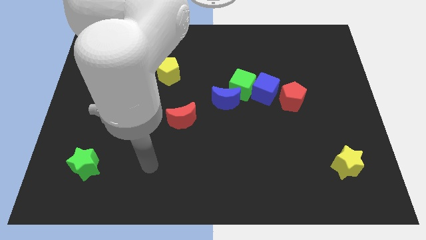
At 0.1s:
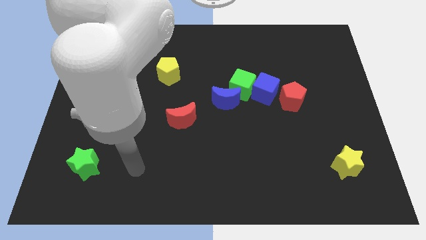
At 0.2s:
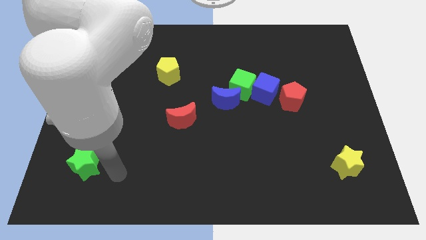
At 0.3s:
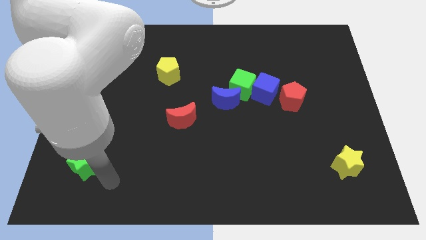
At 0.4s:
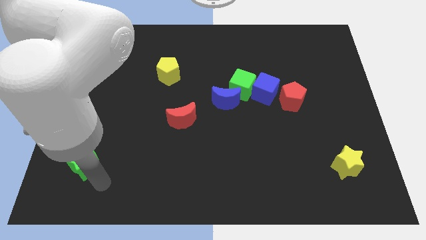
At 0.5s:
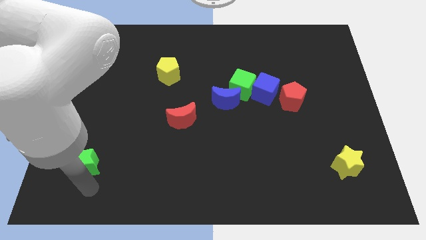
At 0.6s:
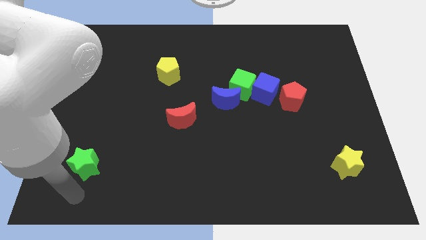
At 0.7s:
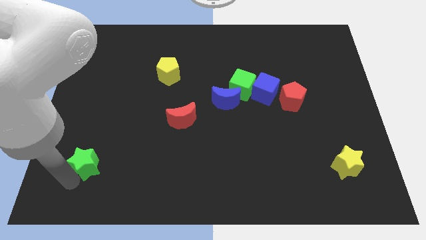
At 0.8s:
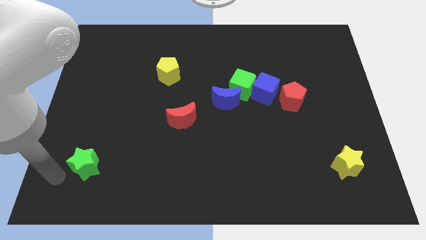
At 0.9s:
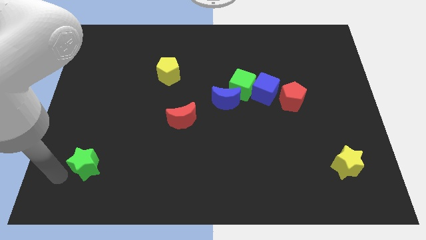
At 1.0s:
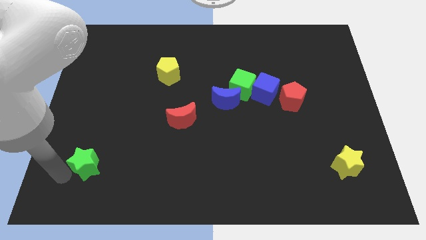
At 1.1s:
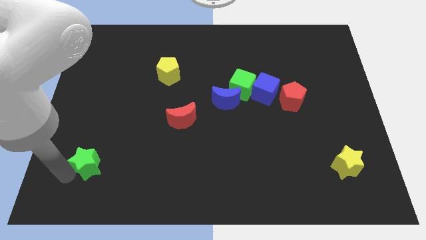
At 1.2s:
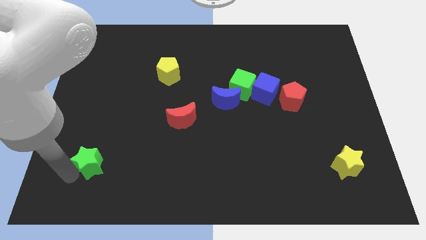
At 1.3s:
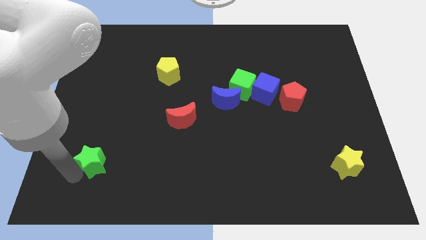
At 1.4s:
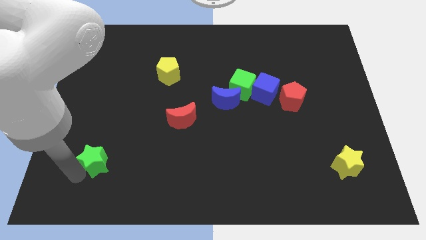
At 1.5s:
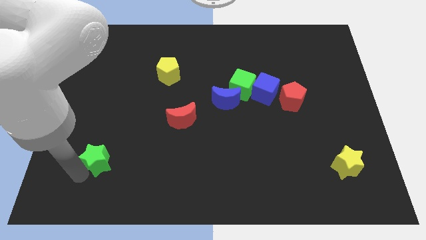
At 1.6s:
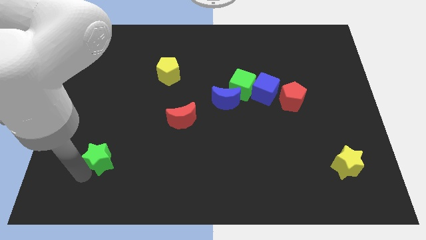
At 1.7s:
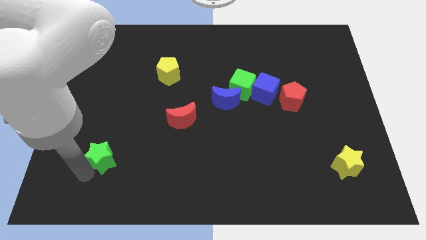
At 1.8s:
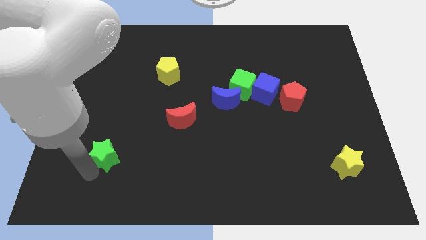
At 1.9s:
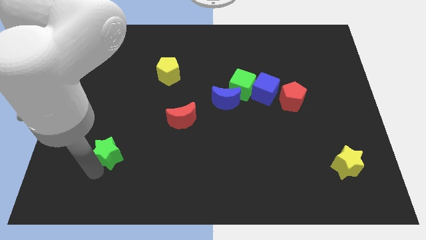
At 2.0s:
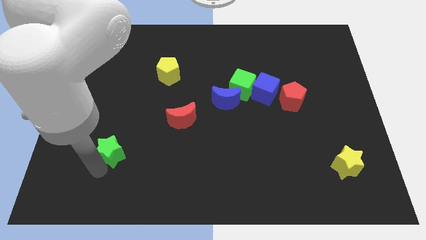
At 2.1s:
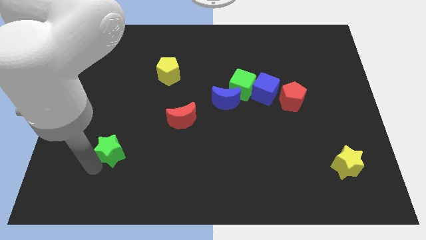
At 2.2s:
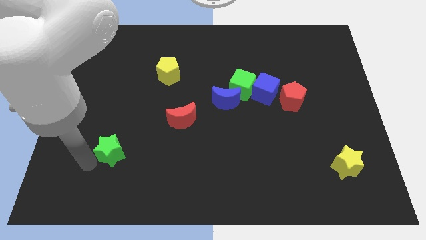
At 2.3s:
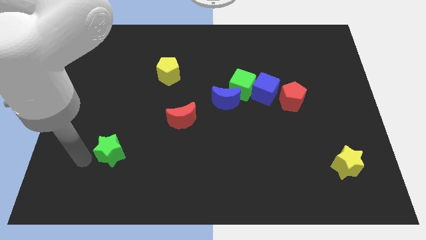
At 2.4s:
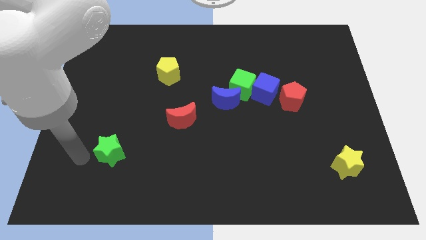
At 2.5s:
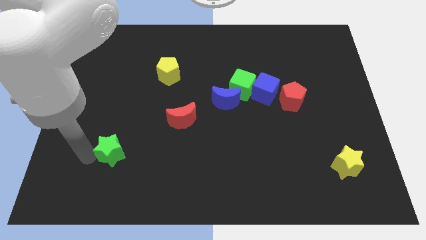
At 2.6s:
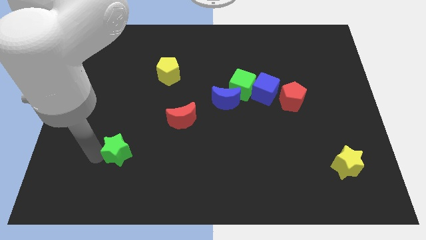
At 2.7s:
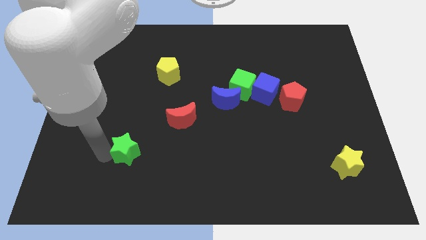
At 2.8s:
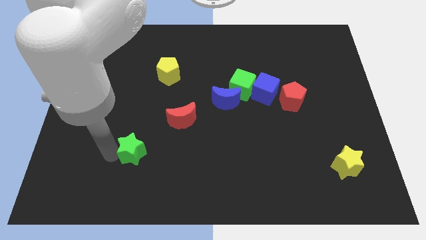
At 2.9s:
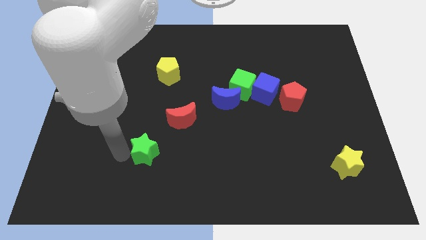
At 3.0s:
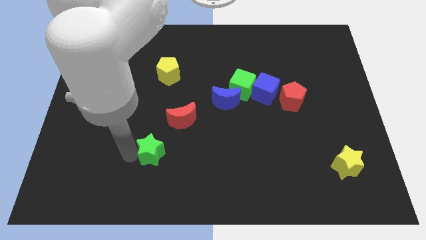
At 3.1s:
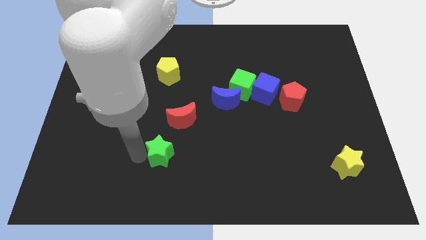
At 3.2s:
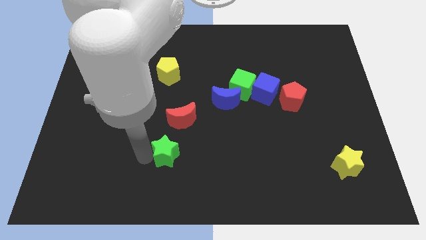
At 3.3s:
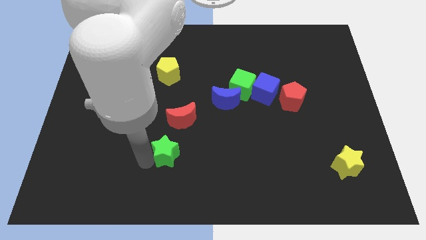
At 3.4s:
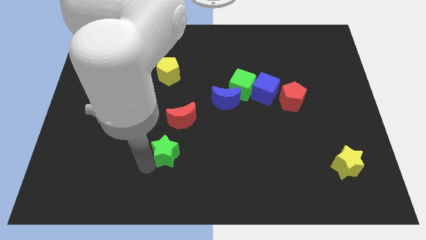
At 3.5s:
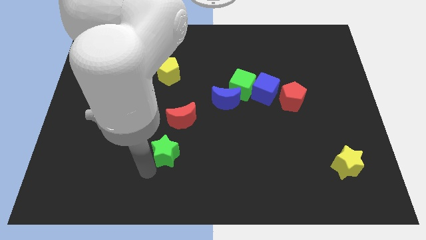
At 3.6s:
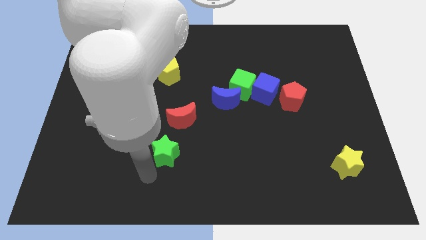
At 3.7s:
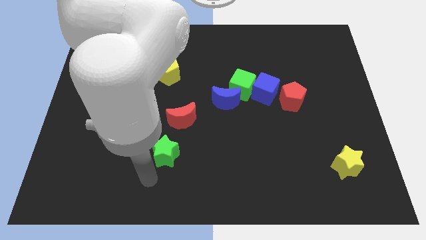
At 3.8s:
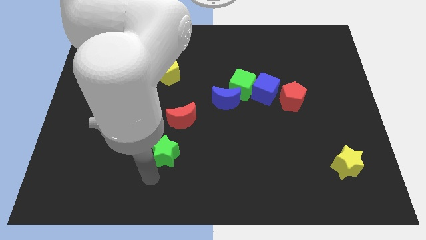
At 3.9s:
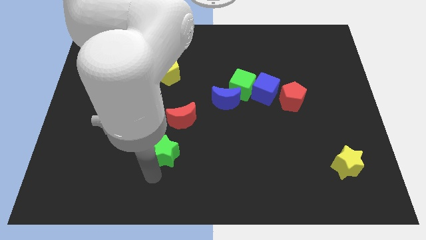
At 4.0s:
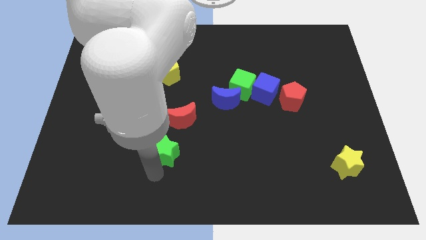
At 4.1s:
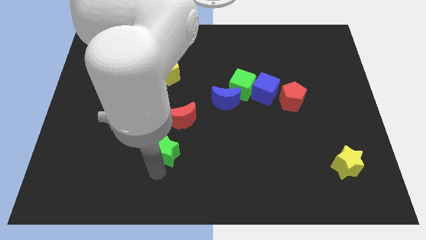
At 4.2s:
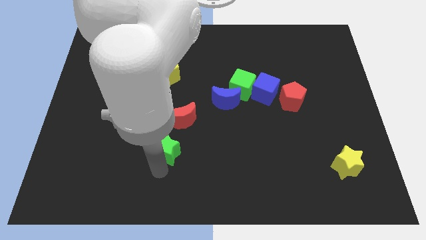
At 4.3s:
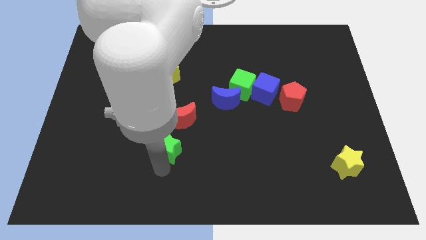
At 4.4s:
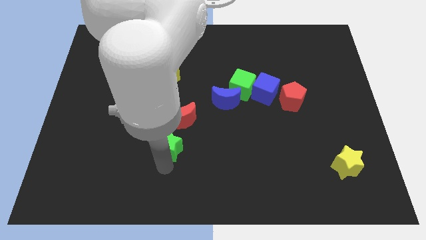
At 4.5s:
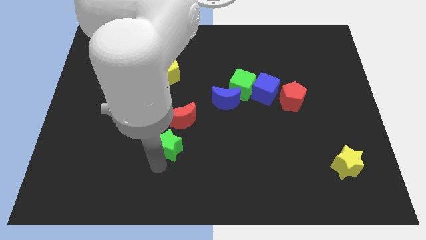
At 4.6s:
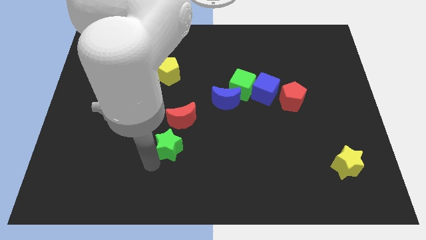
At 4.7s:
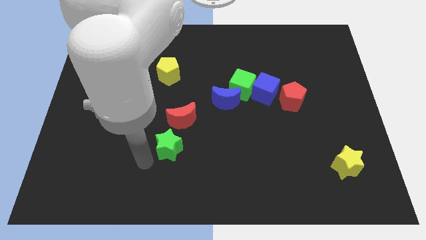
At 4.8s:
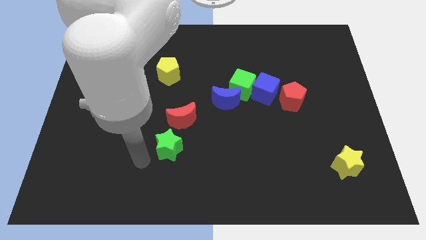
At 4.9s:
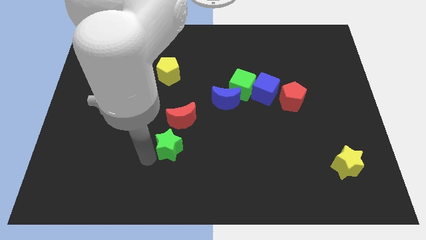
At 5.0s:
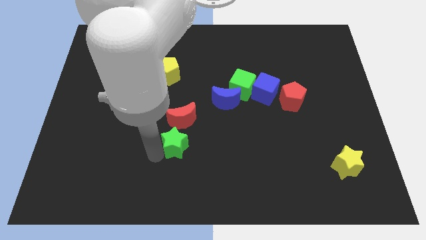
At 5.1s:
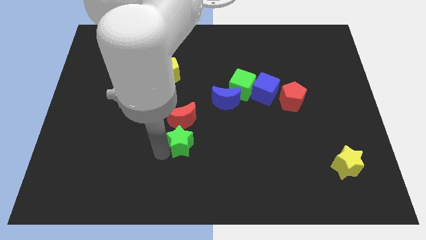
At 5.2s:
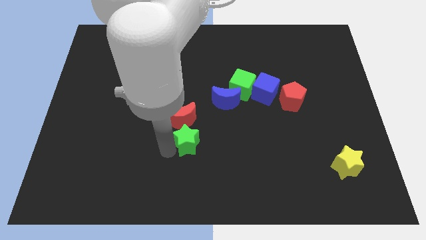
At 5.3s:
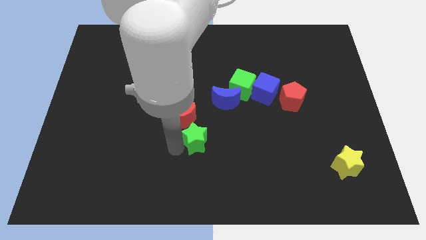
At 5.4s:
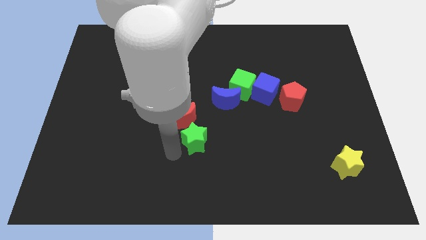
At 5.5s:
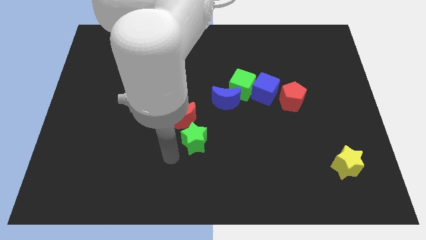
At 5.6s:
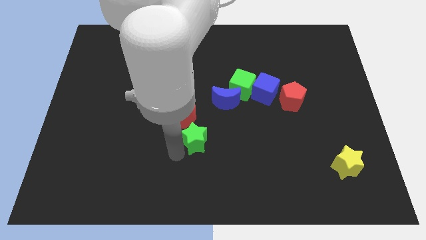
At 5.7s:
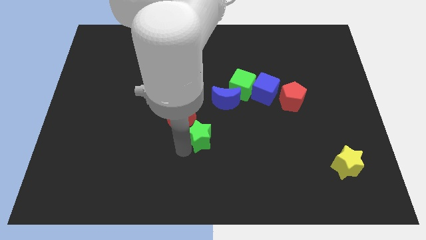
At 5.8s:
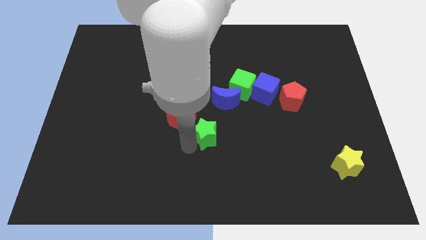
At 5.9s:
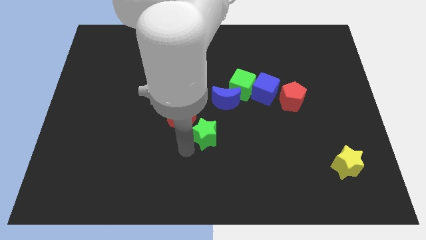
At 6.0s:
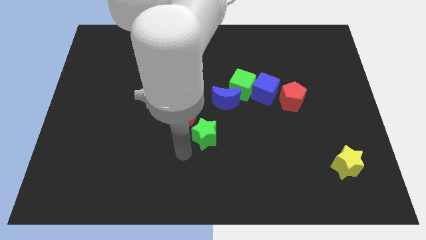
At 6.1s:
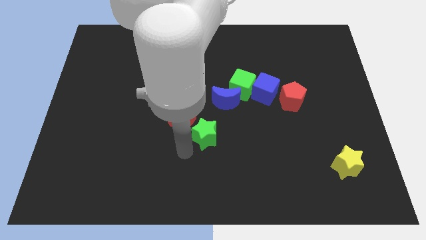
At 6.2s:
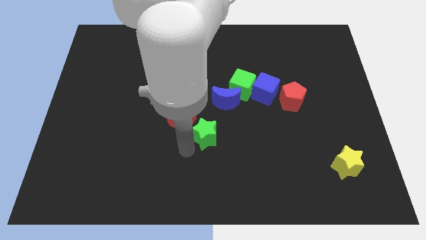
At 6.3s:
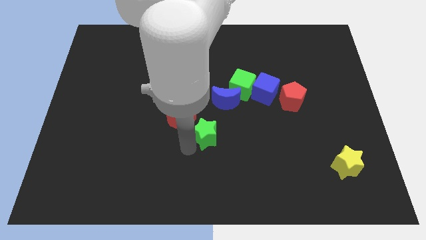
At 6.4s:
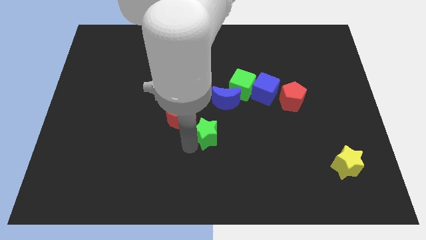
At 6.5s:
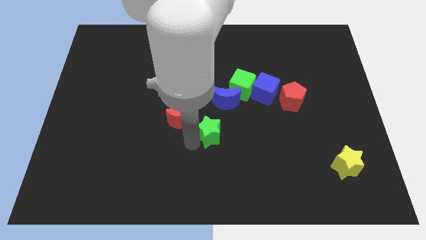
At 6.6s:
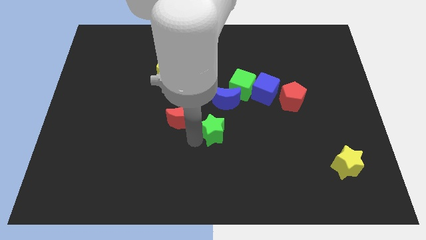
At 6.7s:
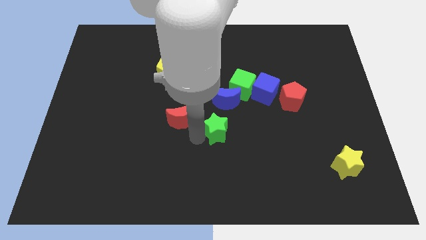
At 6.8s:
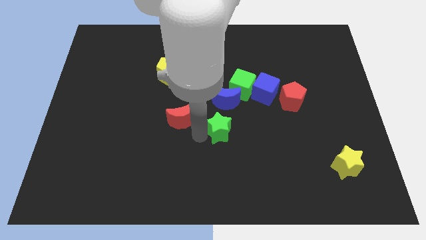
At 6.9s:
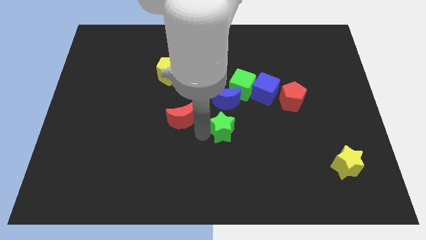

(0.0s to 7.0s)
move the green star below the green cube

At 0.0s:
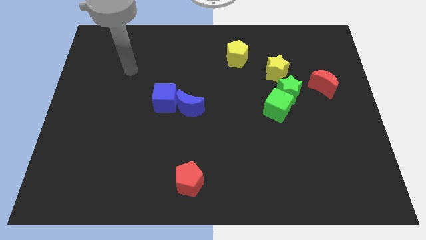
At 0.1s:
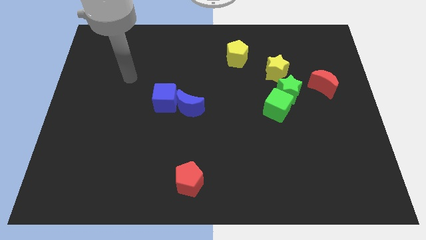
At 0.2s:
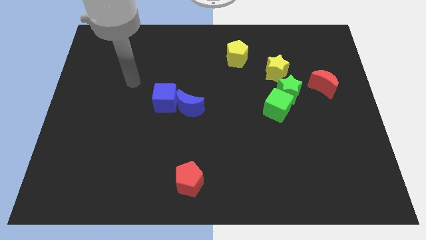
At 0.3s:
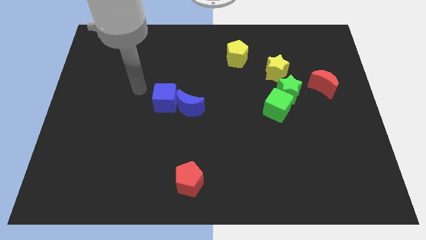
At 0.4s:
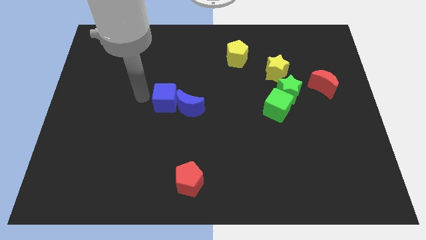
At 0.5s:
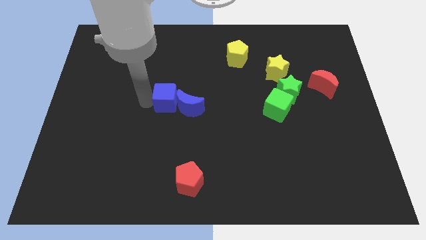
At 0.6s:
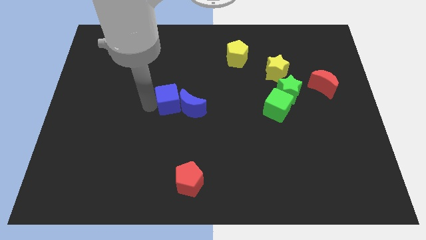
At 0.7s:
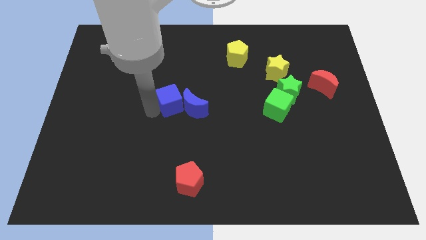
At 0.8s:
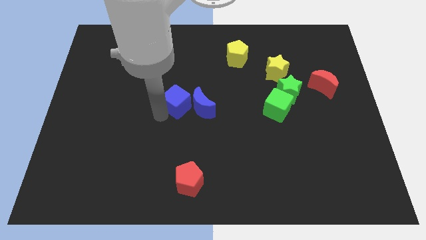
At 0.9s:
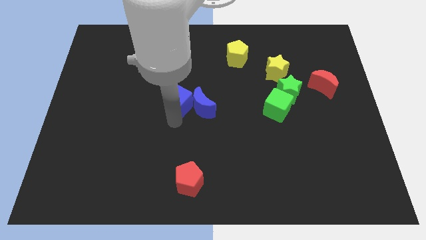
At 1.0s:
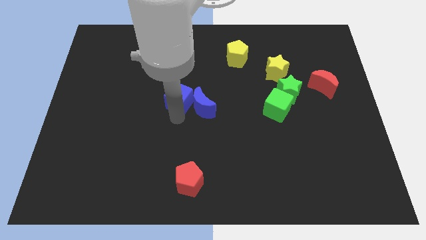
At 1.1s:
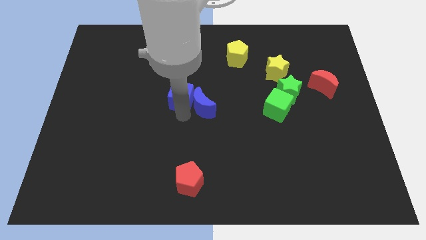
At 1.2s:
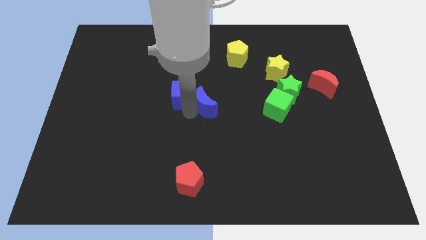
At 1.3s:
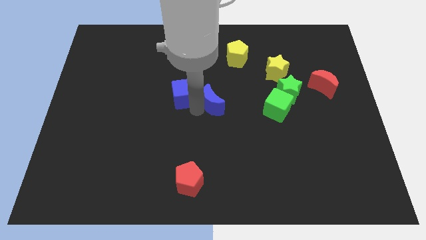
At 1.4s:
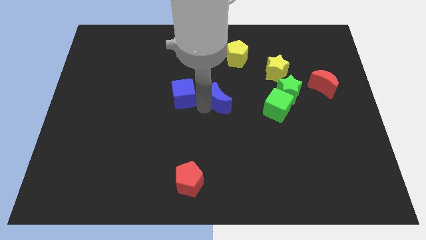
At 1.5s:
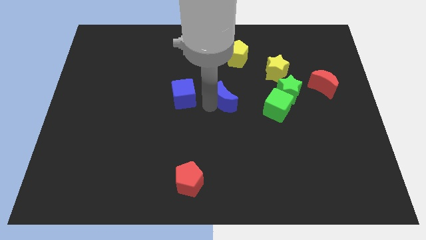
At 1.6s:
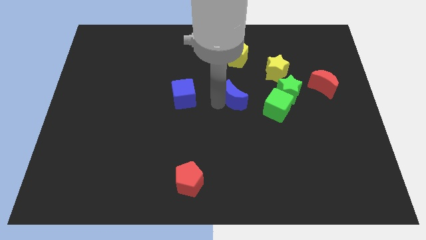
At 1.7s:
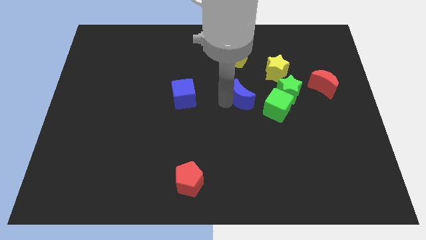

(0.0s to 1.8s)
push the blue moon to the top left of the green cube
